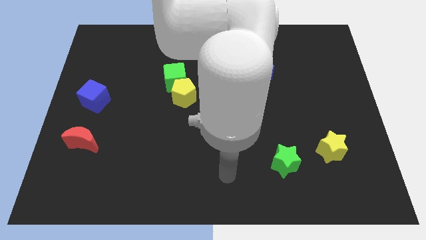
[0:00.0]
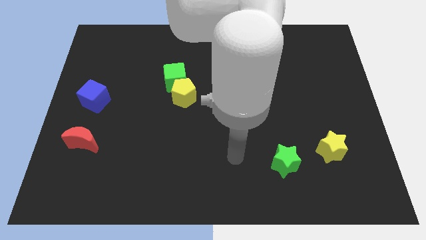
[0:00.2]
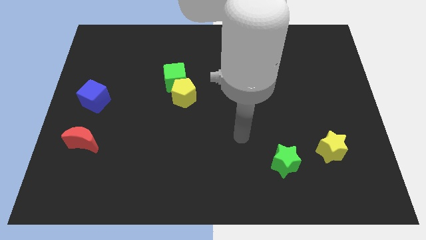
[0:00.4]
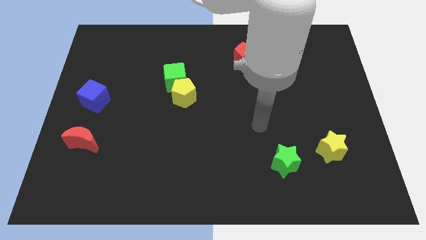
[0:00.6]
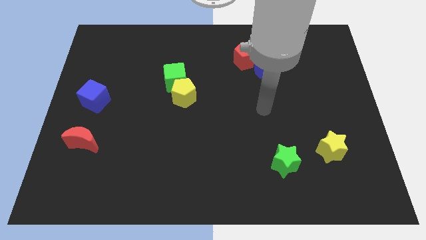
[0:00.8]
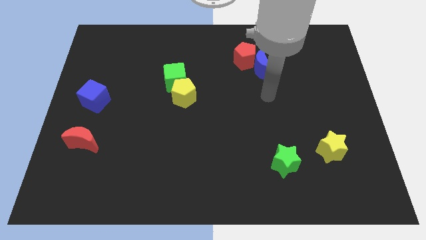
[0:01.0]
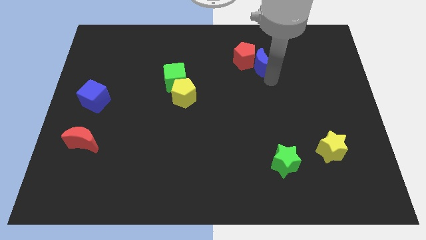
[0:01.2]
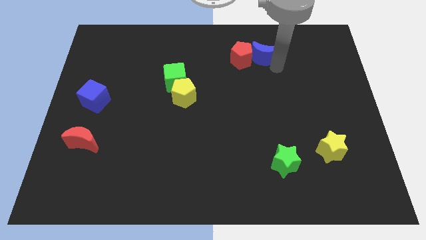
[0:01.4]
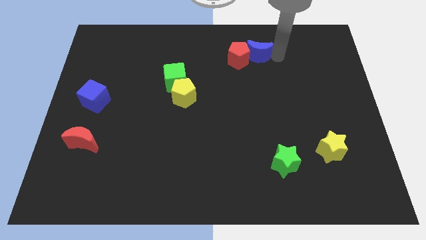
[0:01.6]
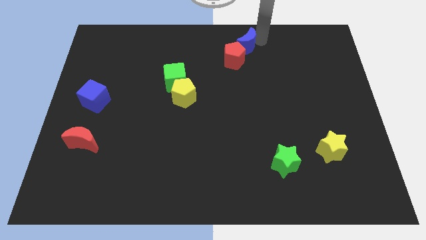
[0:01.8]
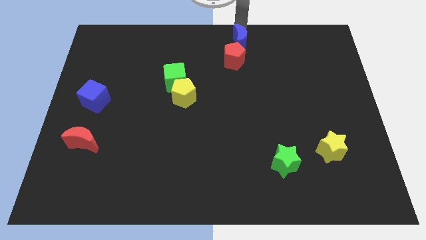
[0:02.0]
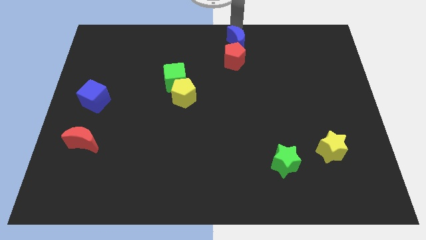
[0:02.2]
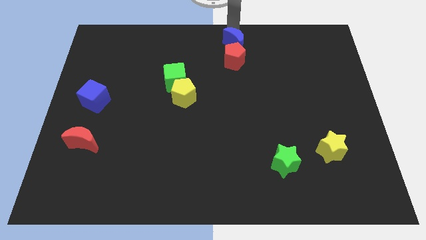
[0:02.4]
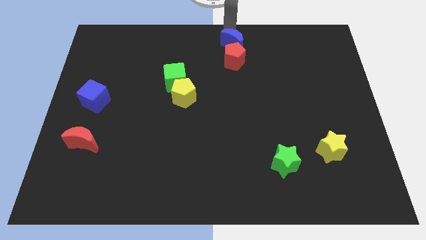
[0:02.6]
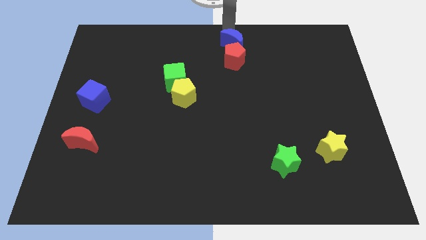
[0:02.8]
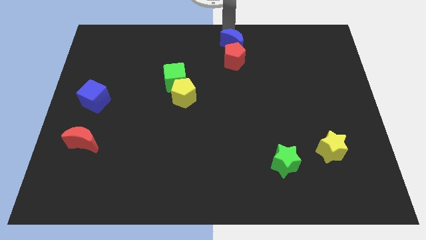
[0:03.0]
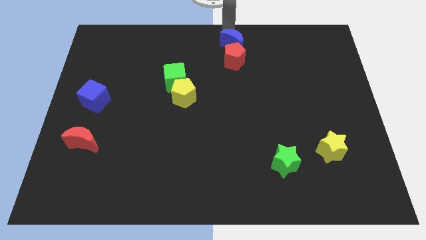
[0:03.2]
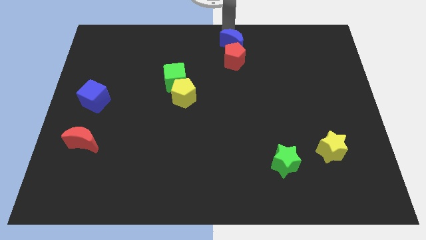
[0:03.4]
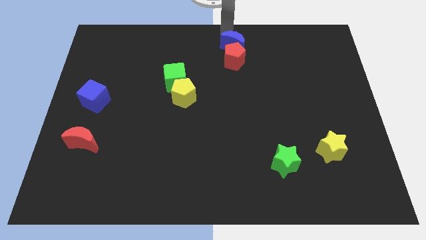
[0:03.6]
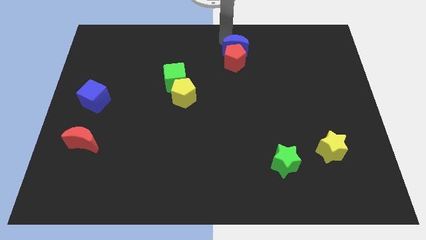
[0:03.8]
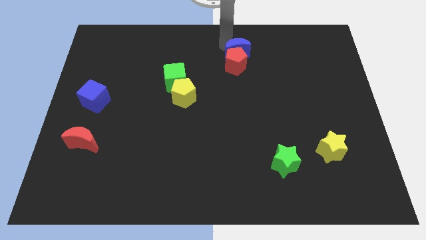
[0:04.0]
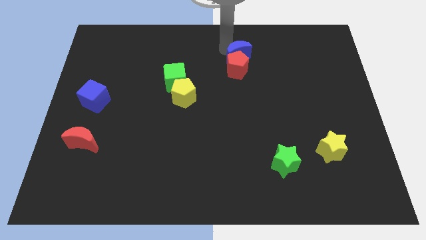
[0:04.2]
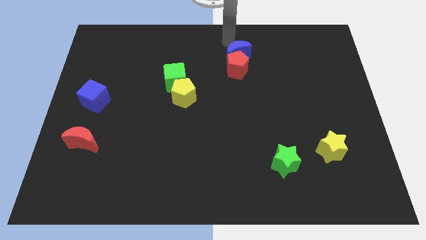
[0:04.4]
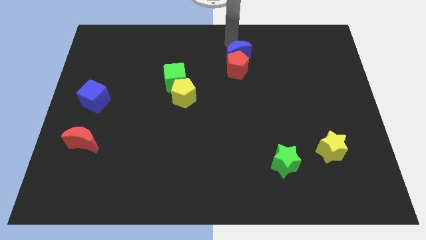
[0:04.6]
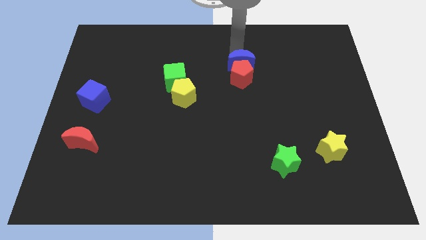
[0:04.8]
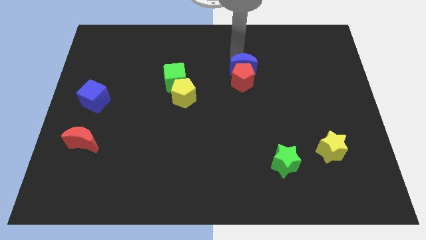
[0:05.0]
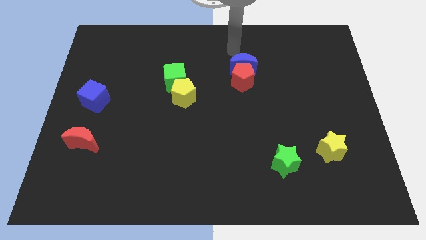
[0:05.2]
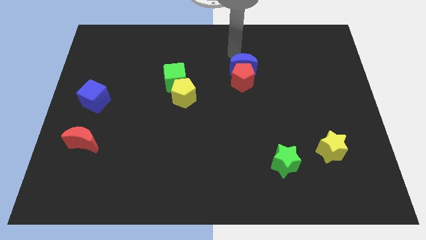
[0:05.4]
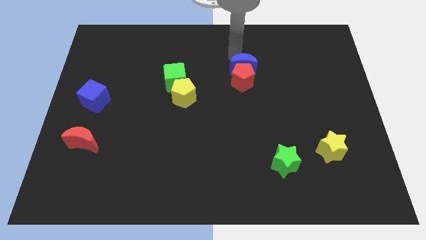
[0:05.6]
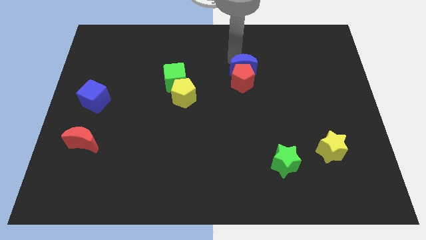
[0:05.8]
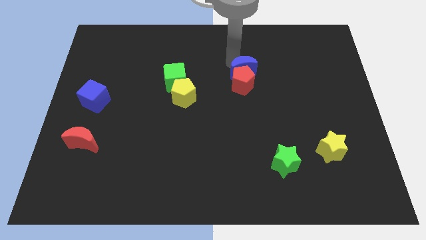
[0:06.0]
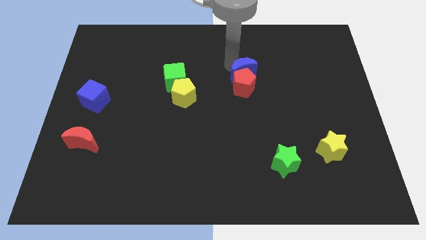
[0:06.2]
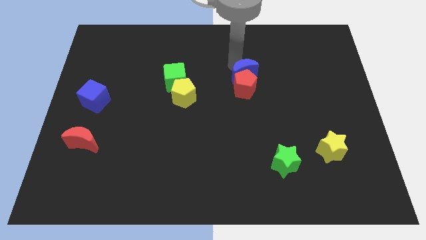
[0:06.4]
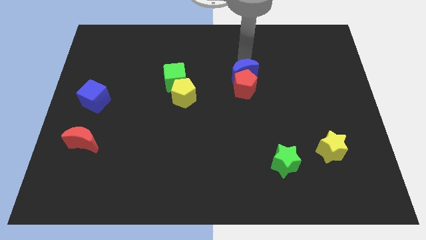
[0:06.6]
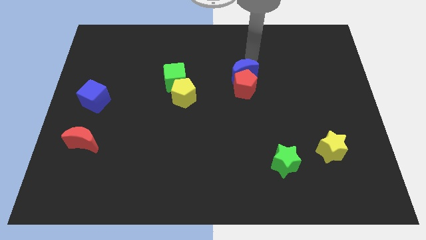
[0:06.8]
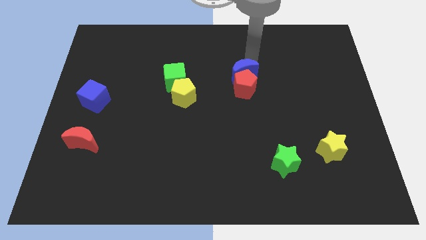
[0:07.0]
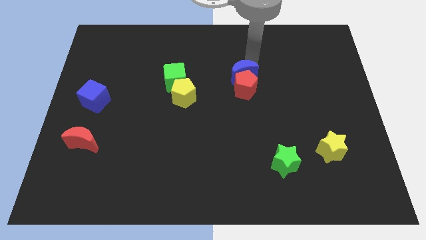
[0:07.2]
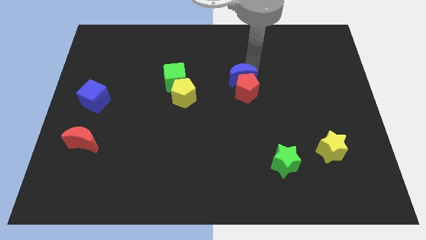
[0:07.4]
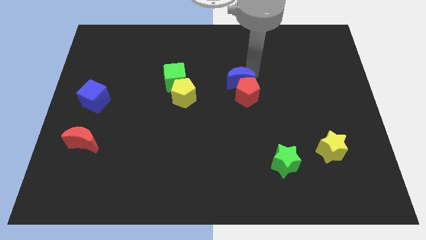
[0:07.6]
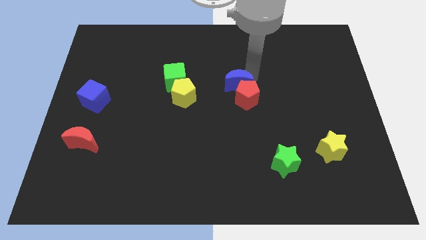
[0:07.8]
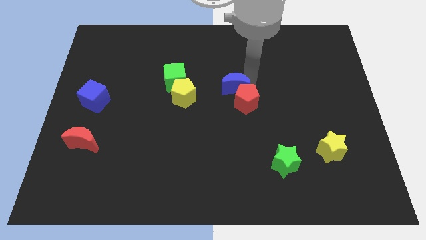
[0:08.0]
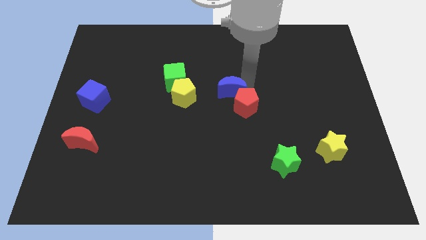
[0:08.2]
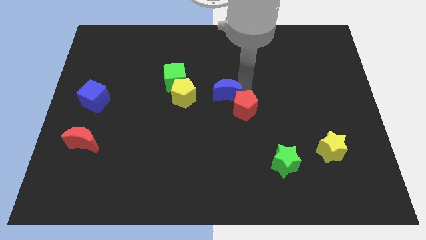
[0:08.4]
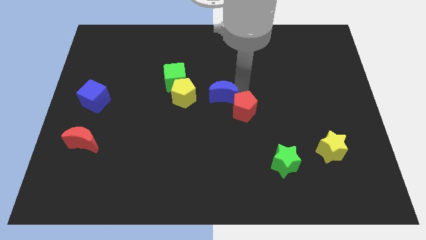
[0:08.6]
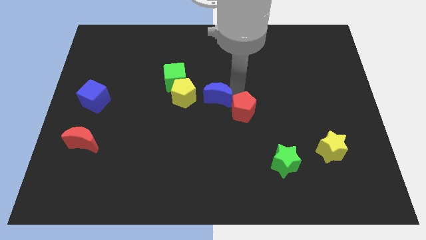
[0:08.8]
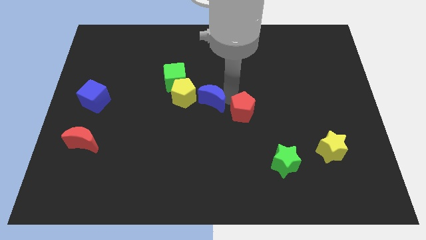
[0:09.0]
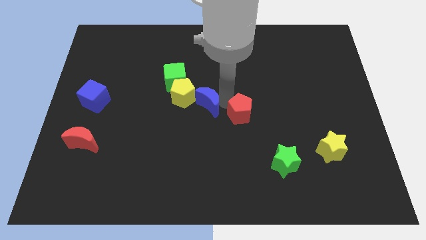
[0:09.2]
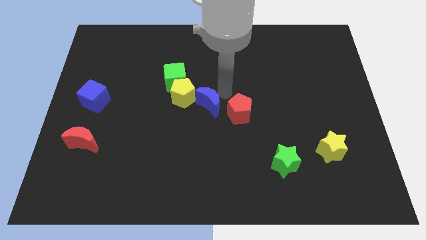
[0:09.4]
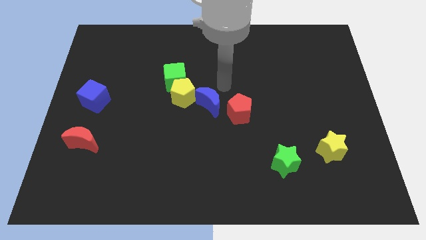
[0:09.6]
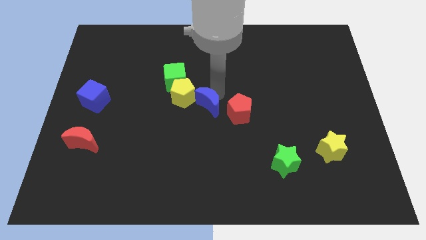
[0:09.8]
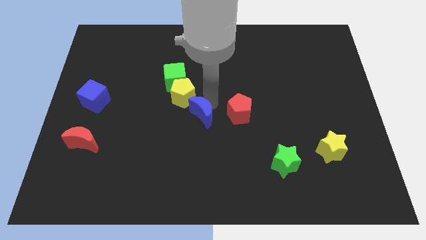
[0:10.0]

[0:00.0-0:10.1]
slide the blue moon down and then left

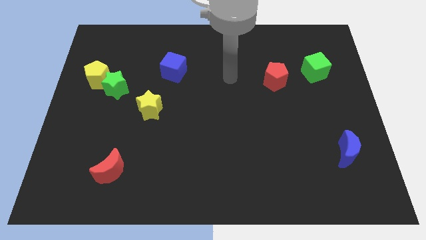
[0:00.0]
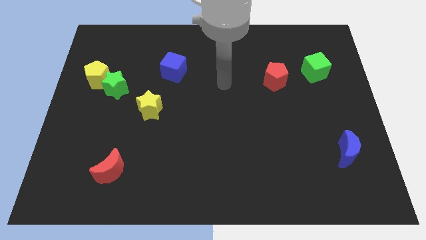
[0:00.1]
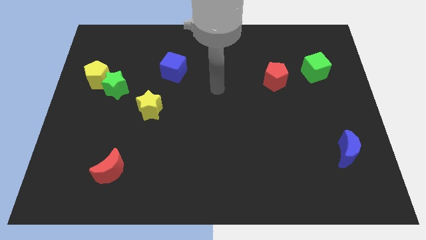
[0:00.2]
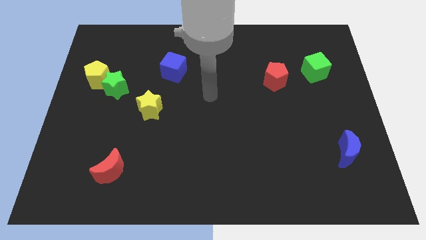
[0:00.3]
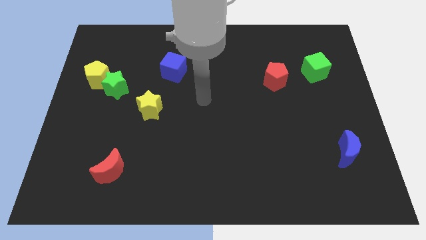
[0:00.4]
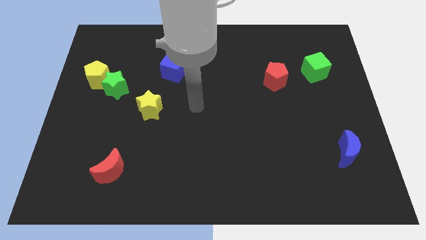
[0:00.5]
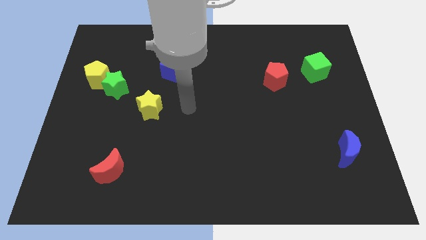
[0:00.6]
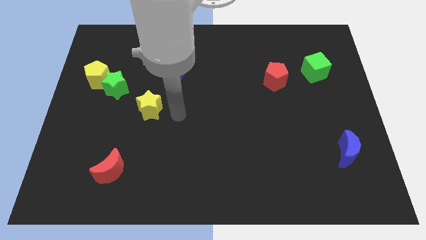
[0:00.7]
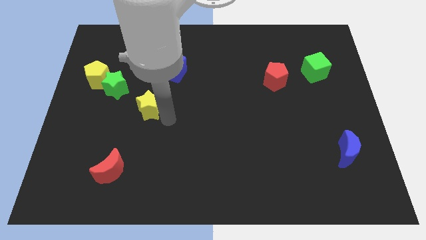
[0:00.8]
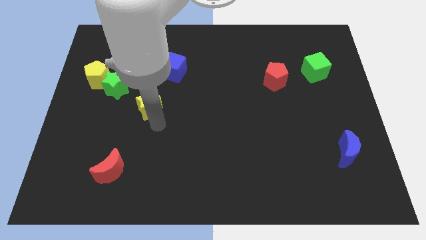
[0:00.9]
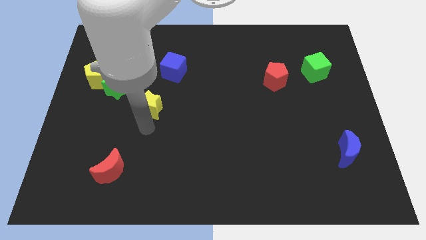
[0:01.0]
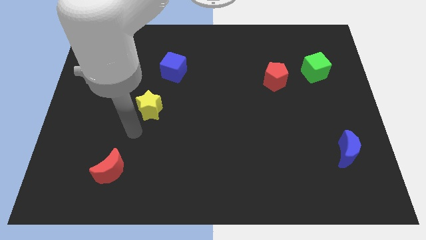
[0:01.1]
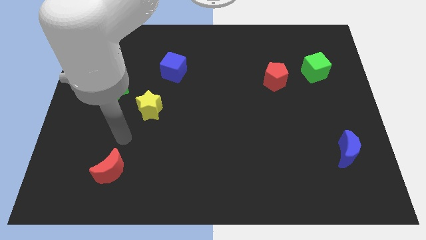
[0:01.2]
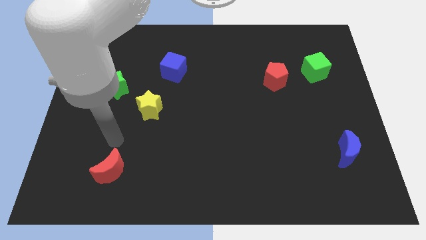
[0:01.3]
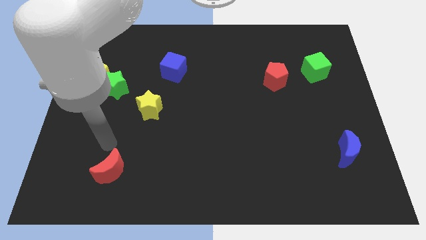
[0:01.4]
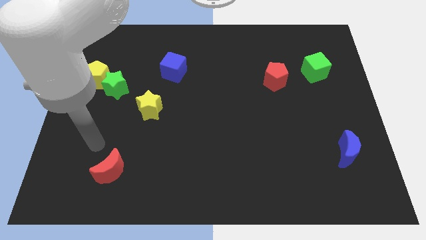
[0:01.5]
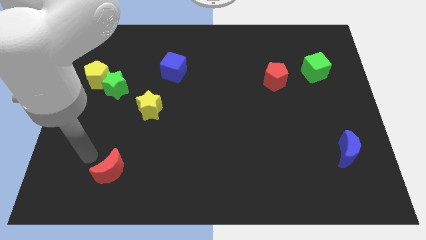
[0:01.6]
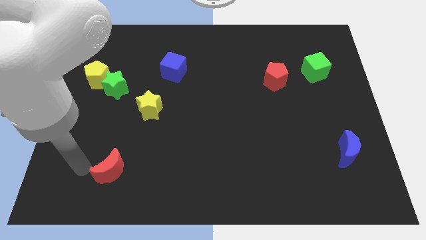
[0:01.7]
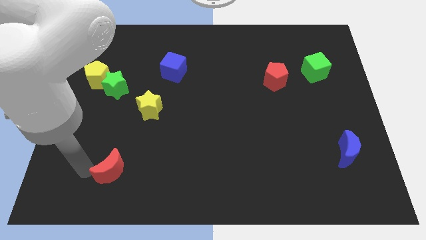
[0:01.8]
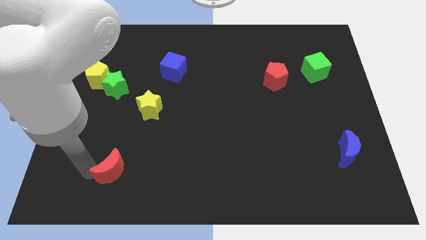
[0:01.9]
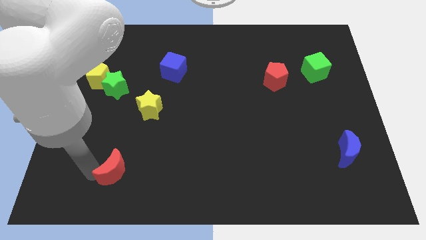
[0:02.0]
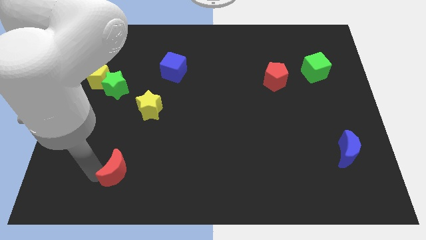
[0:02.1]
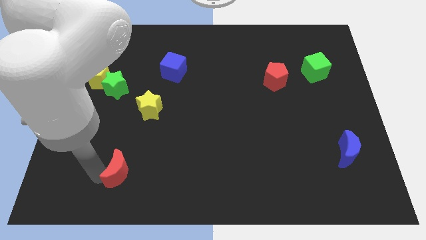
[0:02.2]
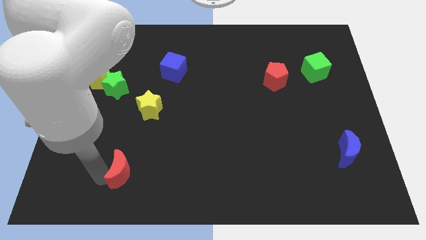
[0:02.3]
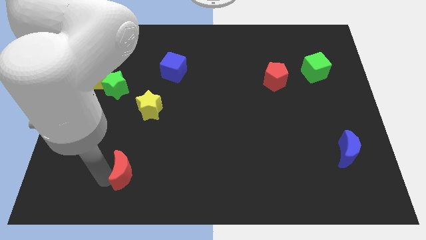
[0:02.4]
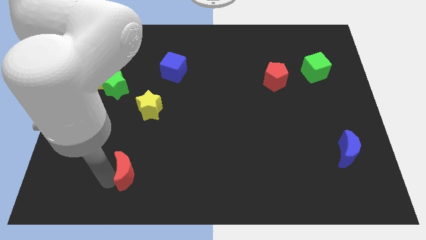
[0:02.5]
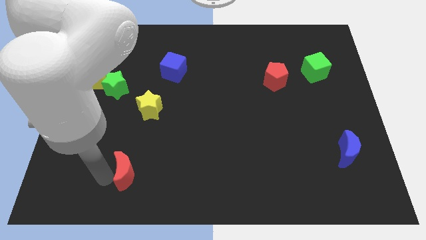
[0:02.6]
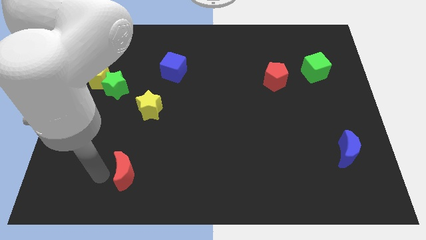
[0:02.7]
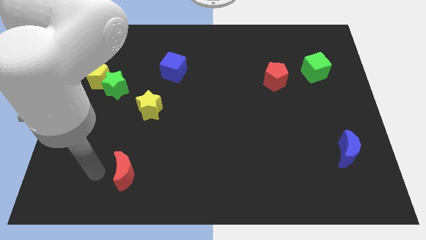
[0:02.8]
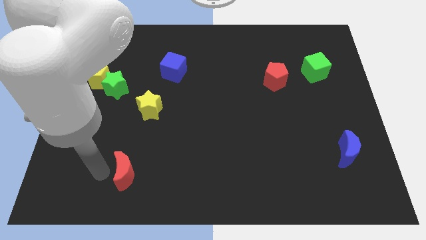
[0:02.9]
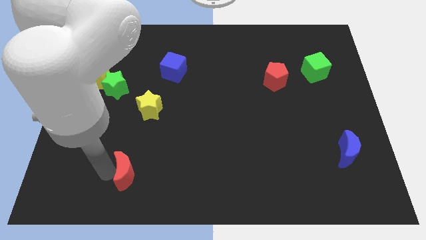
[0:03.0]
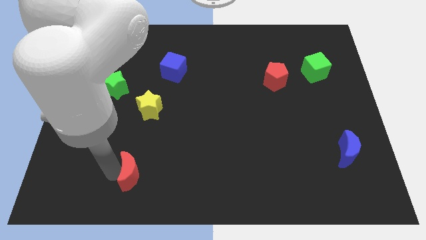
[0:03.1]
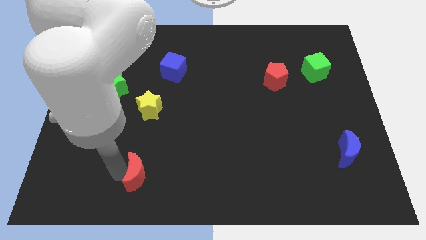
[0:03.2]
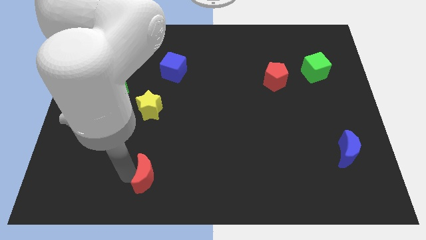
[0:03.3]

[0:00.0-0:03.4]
slightly slide the red moon right
